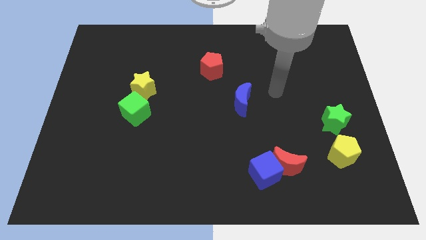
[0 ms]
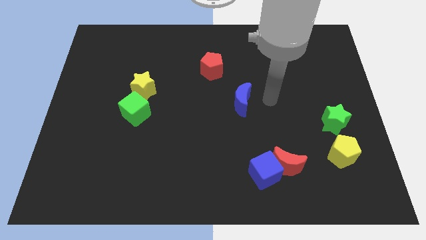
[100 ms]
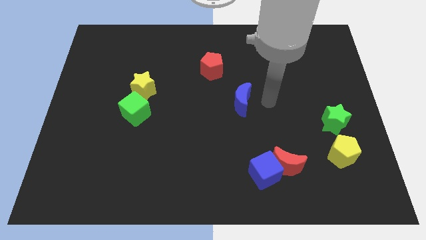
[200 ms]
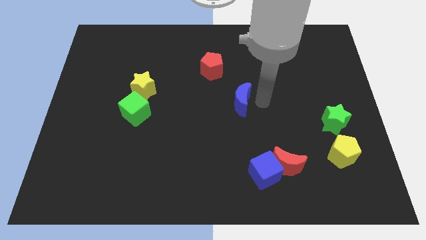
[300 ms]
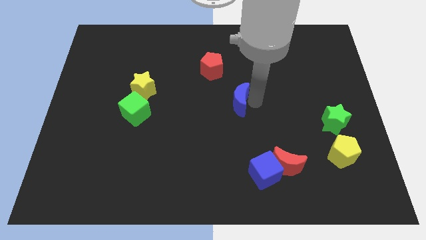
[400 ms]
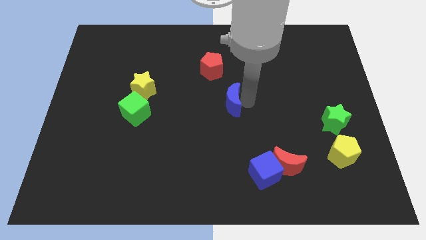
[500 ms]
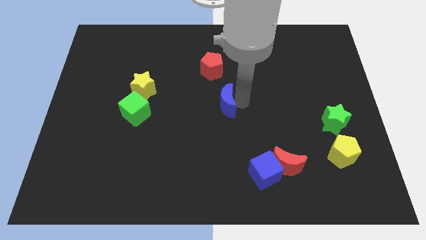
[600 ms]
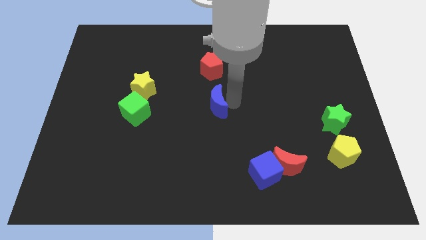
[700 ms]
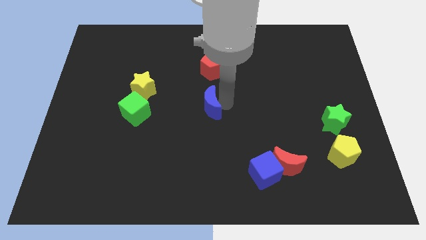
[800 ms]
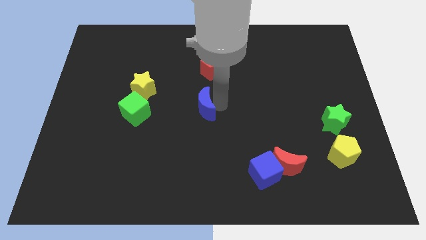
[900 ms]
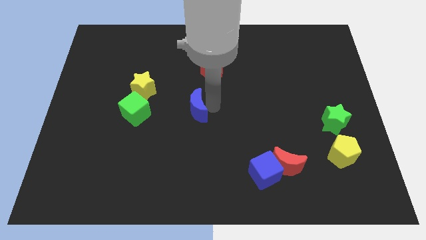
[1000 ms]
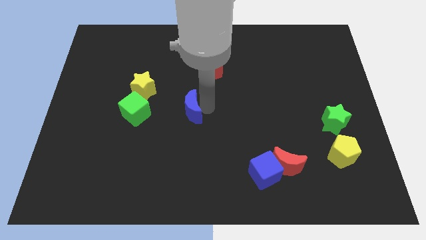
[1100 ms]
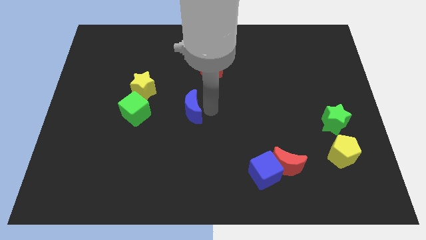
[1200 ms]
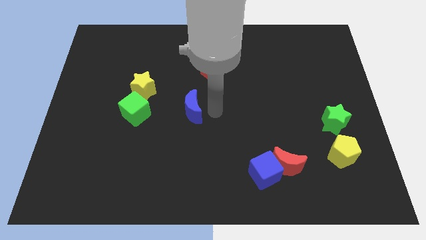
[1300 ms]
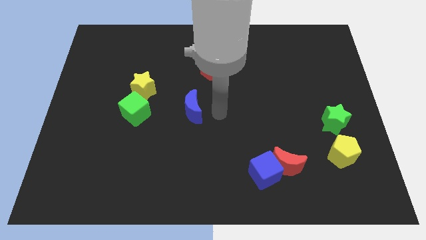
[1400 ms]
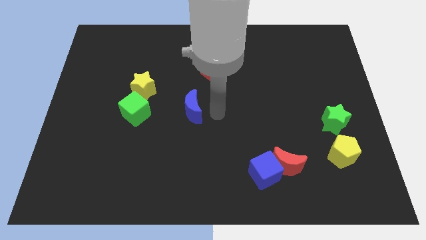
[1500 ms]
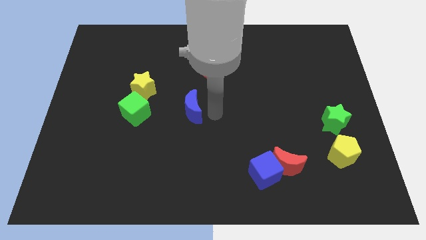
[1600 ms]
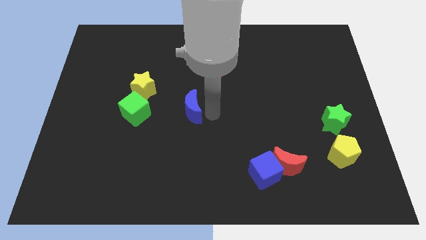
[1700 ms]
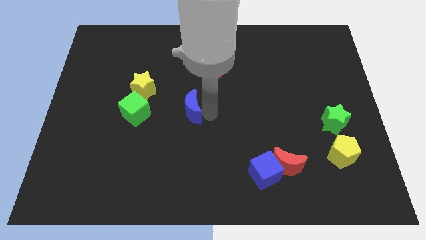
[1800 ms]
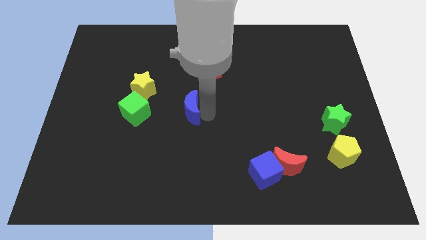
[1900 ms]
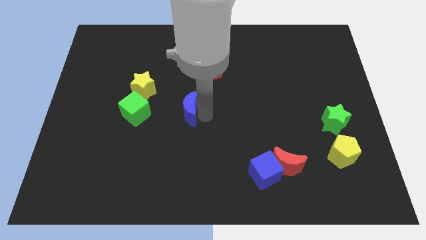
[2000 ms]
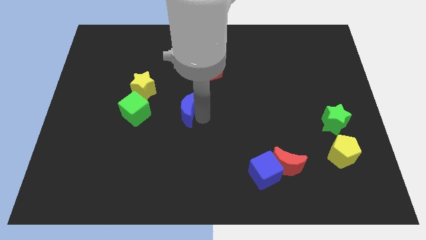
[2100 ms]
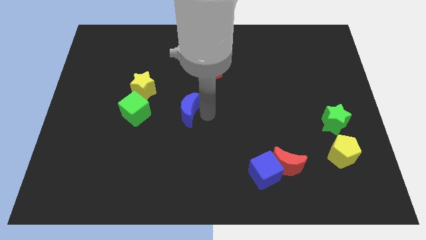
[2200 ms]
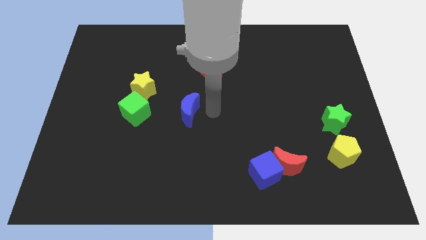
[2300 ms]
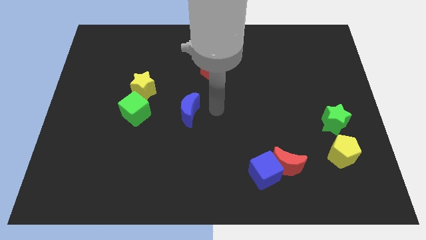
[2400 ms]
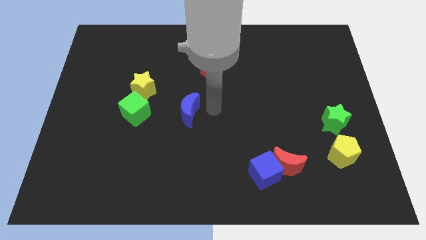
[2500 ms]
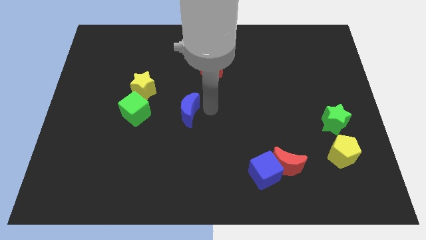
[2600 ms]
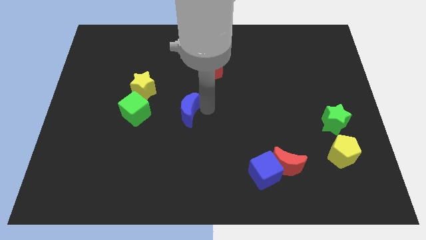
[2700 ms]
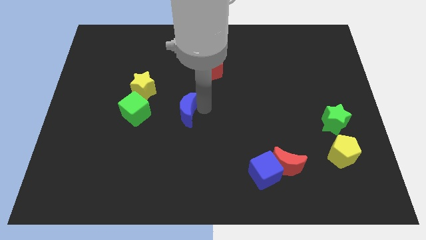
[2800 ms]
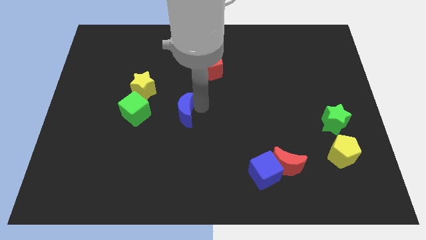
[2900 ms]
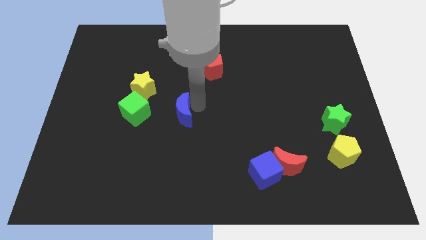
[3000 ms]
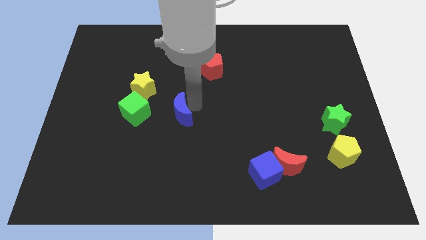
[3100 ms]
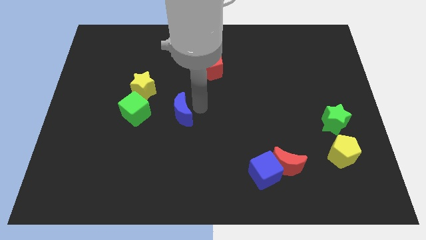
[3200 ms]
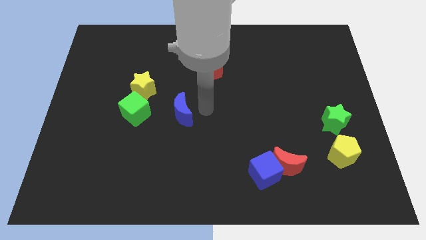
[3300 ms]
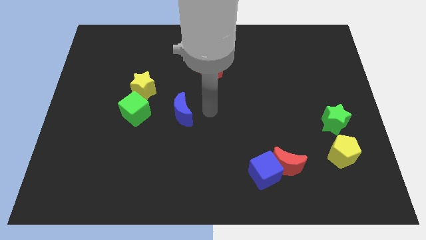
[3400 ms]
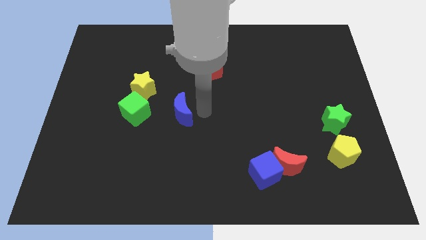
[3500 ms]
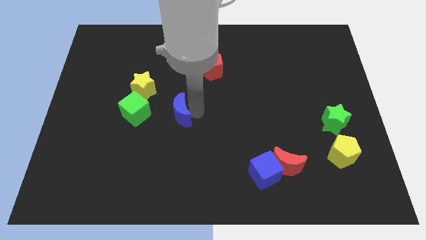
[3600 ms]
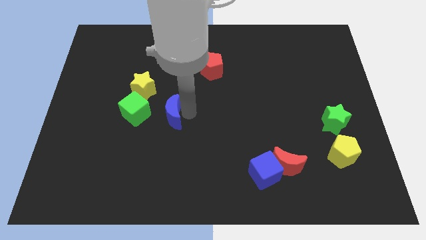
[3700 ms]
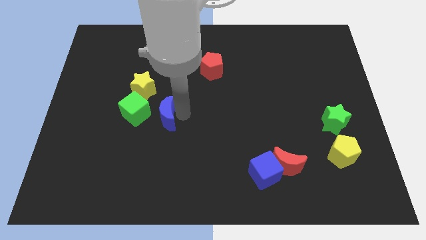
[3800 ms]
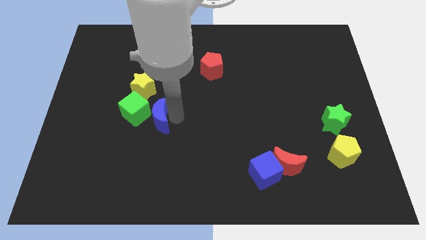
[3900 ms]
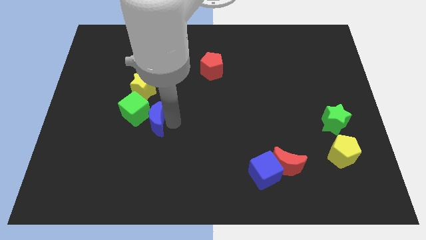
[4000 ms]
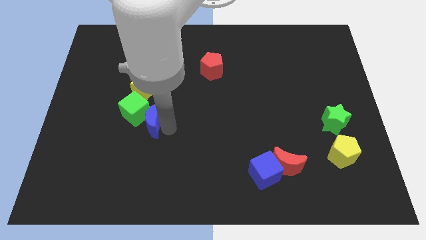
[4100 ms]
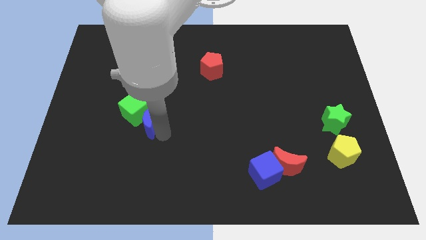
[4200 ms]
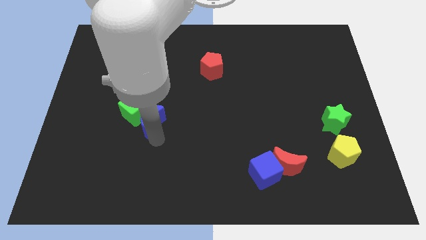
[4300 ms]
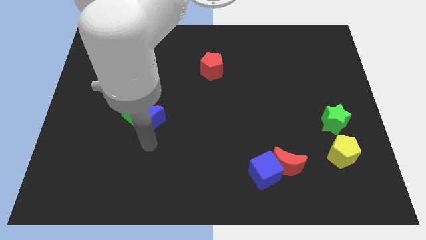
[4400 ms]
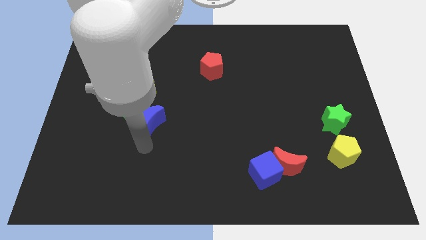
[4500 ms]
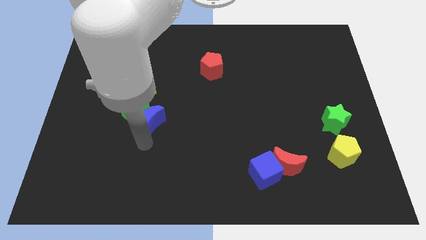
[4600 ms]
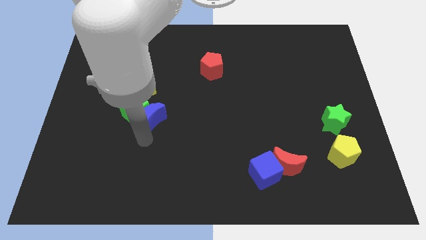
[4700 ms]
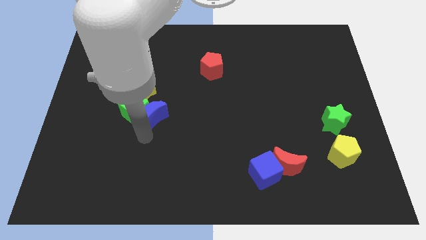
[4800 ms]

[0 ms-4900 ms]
move the blue moon to the top right side of the green cube

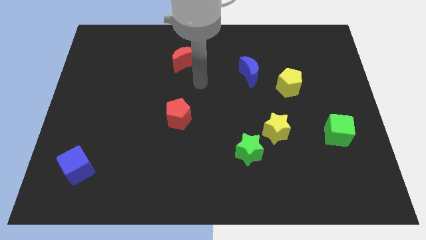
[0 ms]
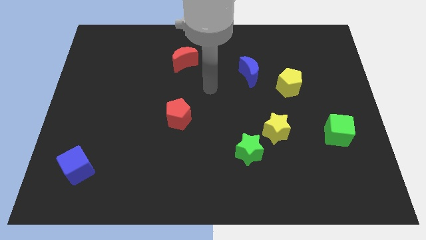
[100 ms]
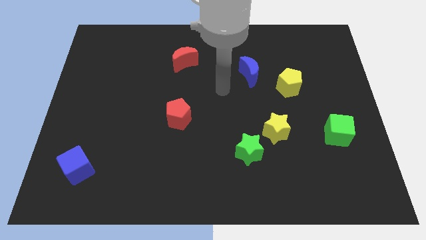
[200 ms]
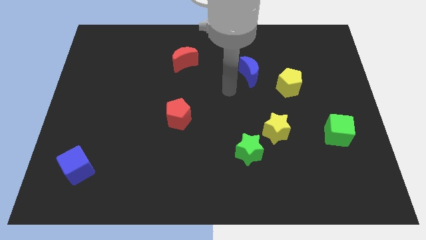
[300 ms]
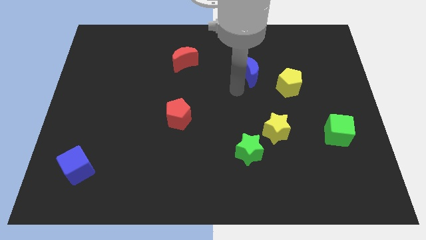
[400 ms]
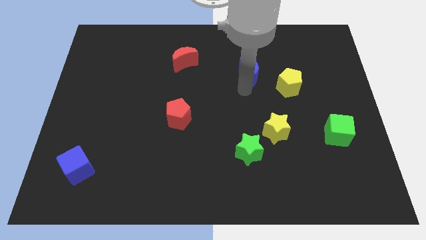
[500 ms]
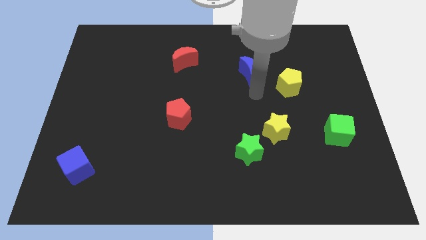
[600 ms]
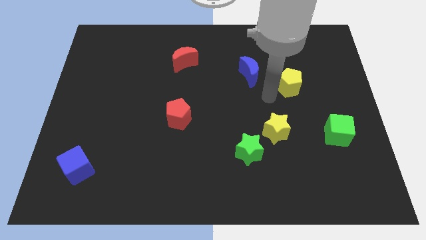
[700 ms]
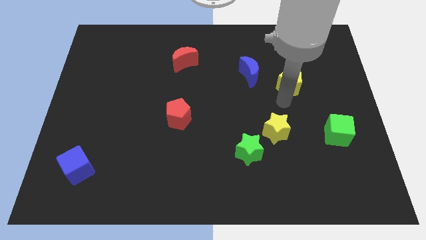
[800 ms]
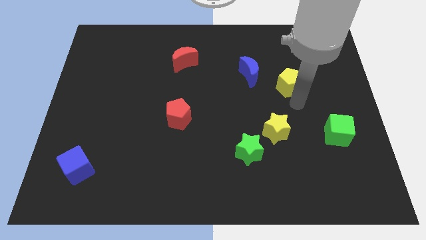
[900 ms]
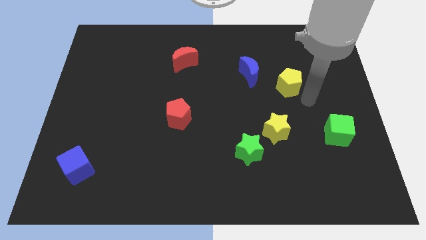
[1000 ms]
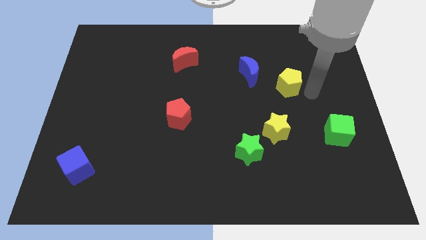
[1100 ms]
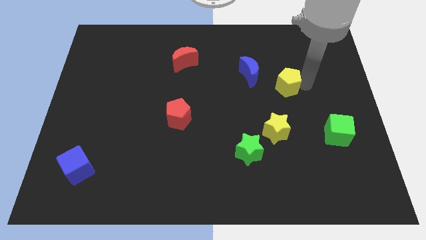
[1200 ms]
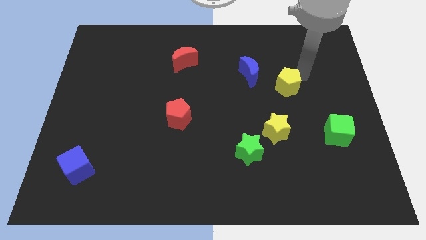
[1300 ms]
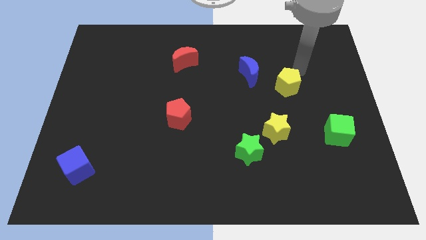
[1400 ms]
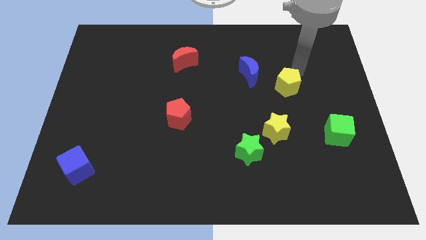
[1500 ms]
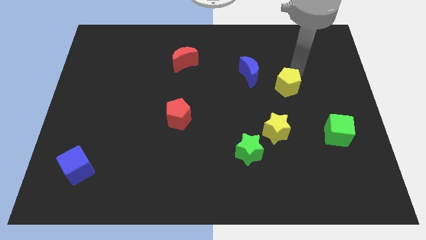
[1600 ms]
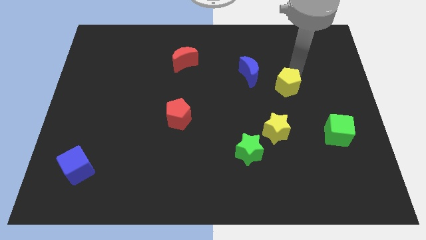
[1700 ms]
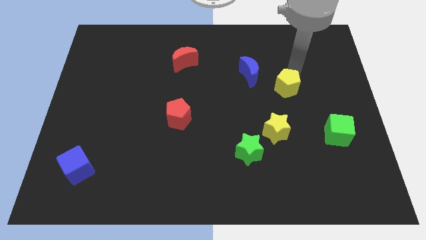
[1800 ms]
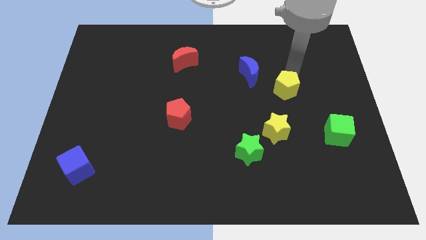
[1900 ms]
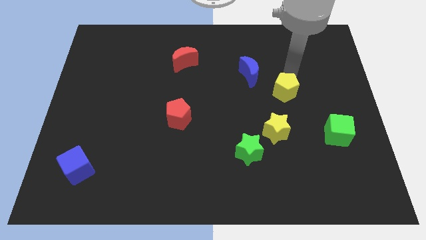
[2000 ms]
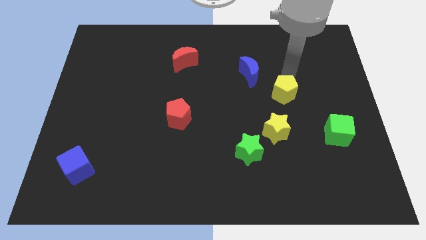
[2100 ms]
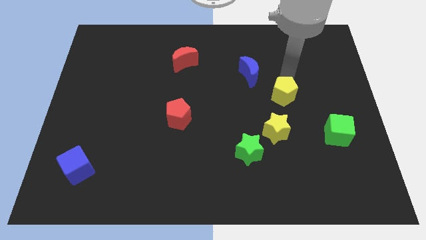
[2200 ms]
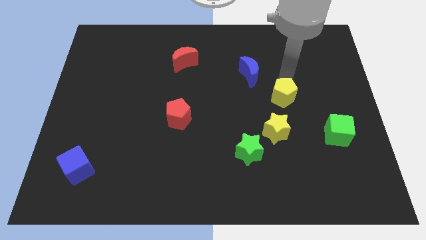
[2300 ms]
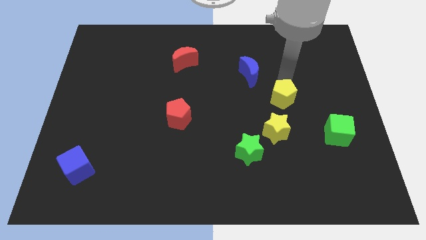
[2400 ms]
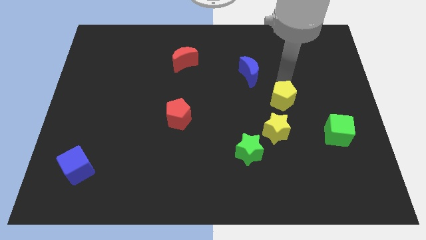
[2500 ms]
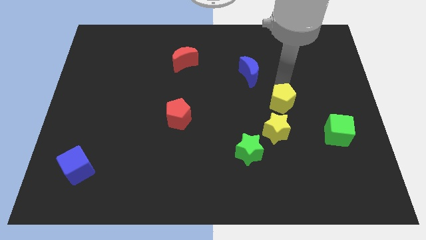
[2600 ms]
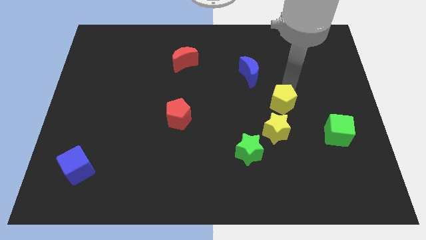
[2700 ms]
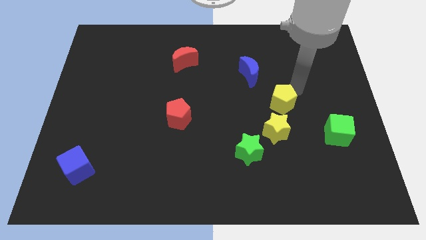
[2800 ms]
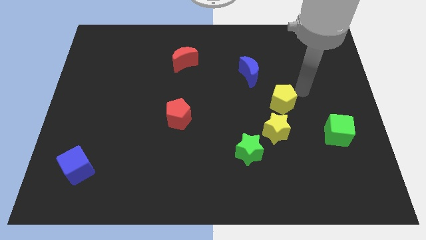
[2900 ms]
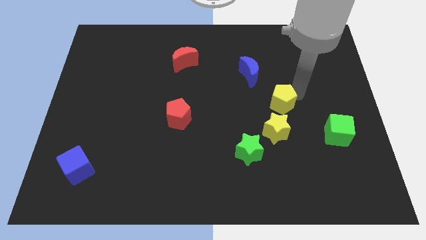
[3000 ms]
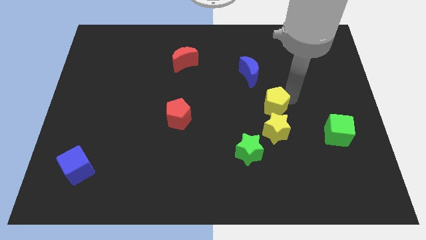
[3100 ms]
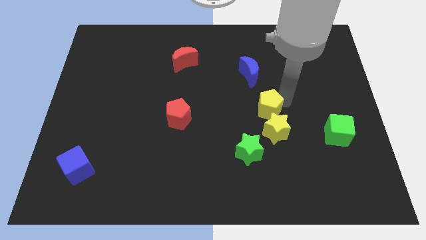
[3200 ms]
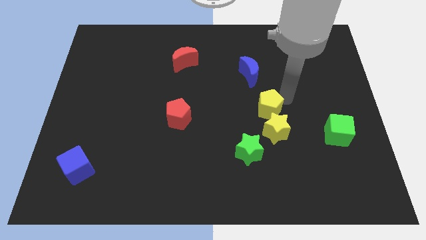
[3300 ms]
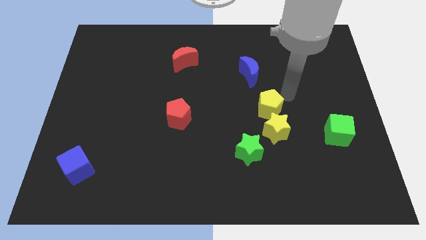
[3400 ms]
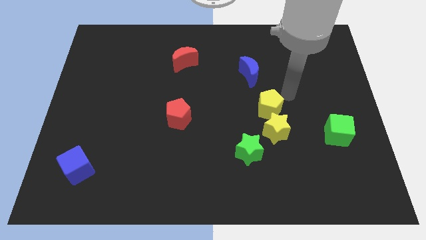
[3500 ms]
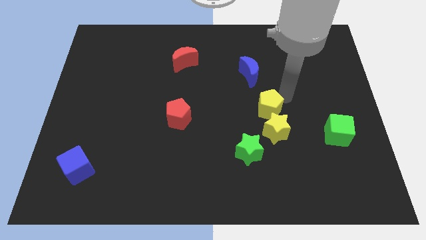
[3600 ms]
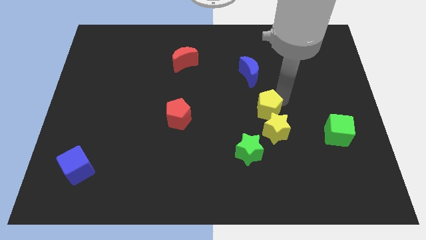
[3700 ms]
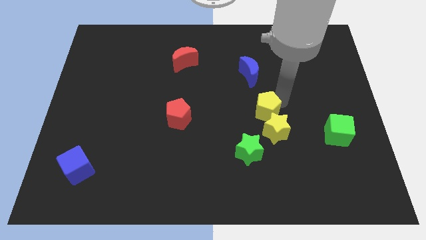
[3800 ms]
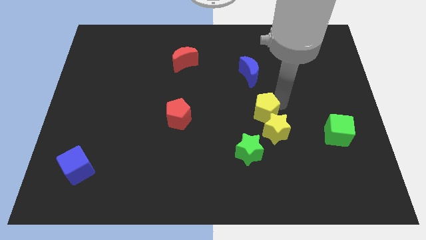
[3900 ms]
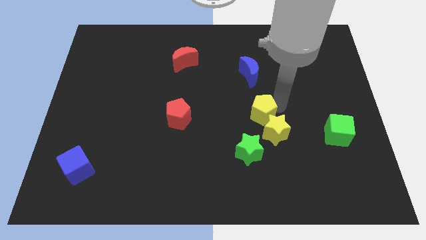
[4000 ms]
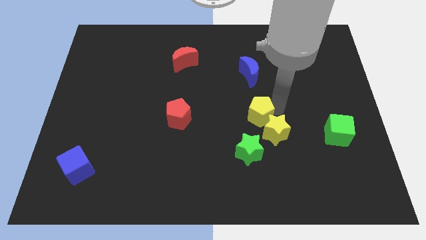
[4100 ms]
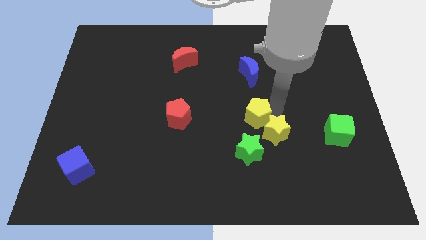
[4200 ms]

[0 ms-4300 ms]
put the yellow pentagon left of the yellow star
